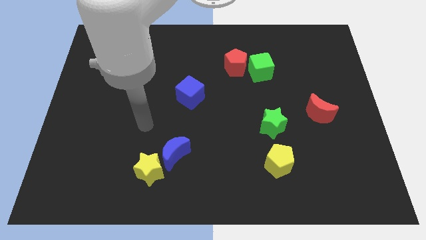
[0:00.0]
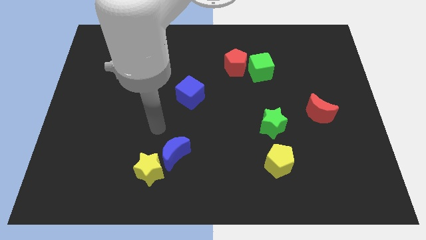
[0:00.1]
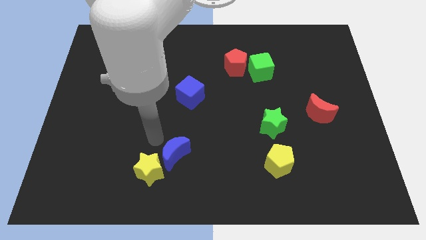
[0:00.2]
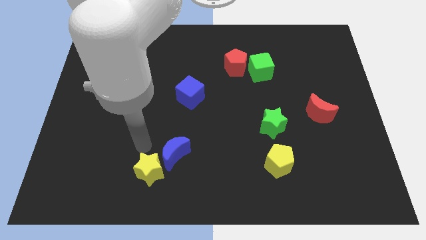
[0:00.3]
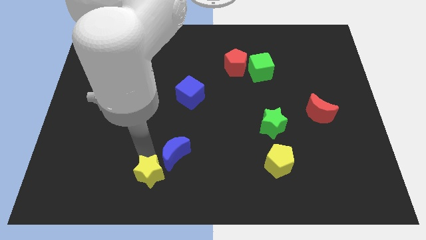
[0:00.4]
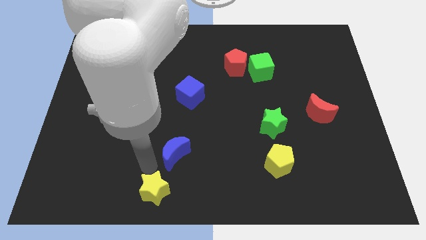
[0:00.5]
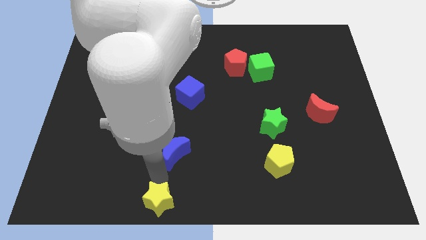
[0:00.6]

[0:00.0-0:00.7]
pull the blue moon apart from the yellow star

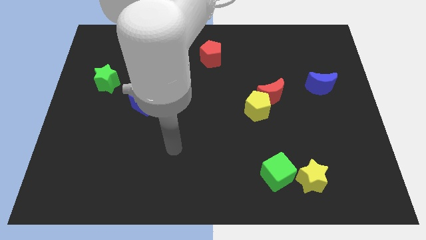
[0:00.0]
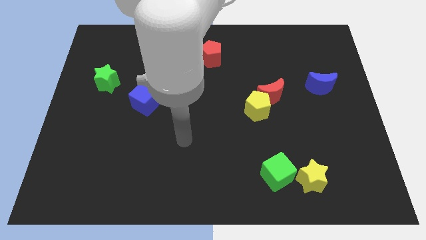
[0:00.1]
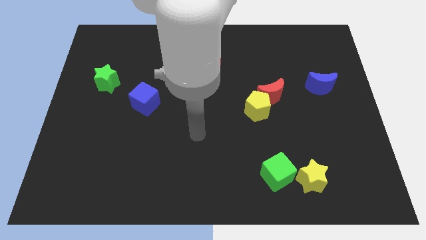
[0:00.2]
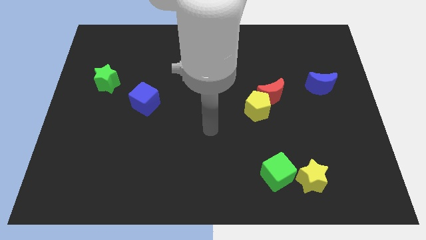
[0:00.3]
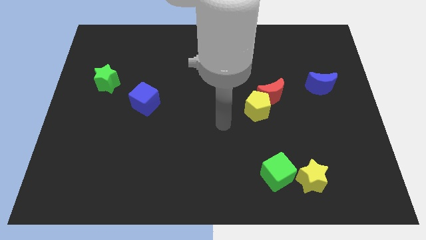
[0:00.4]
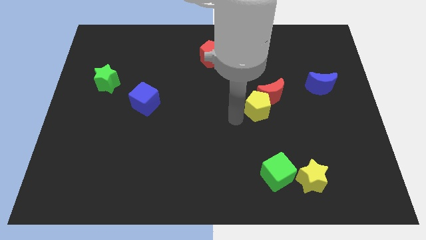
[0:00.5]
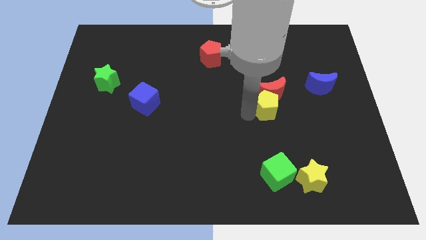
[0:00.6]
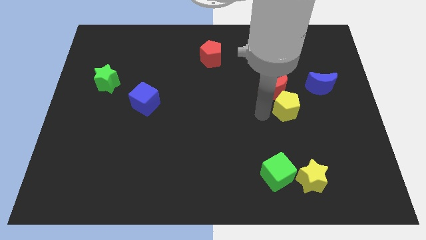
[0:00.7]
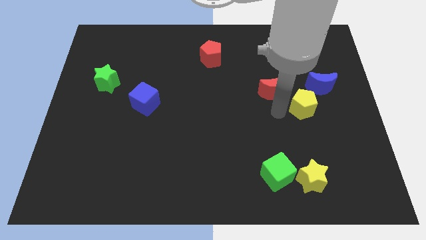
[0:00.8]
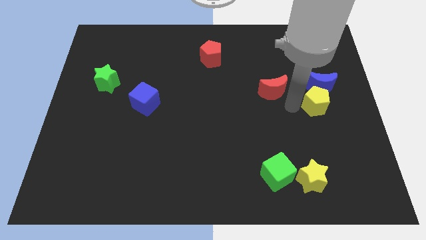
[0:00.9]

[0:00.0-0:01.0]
move the red moon away from the yellow pentagon

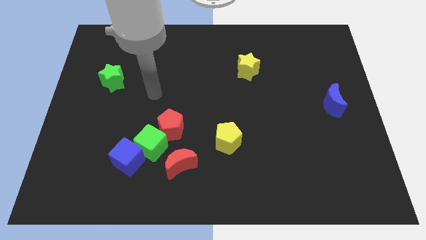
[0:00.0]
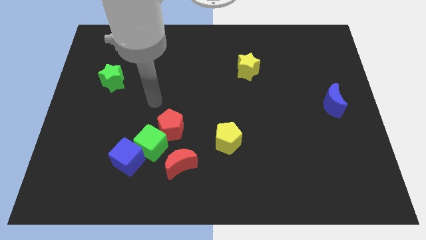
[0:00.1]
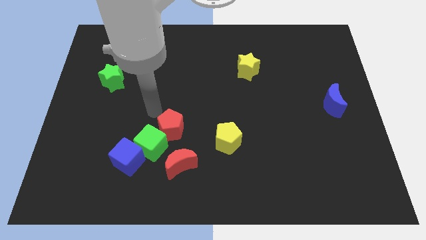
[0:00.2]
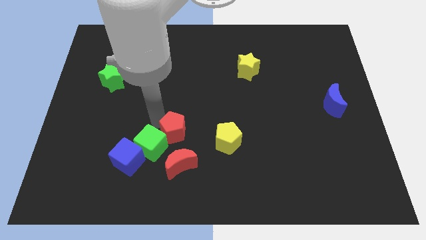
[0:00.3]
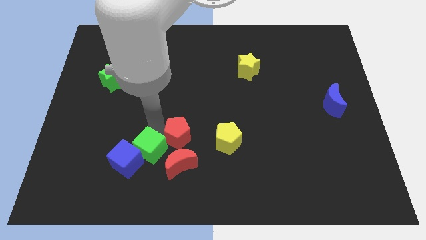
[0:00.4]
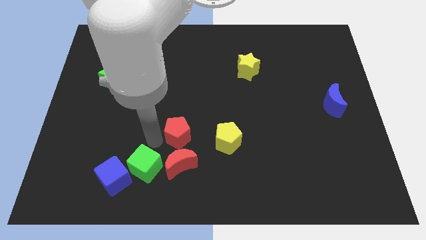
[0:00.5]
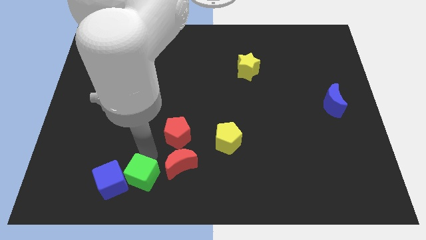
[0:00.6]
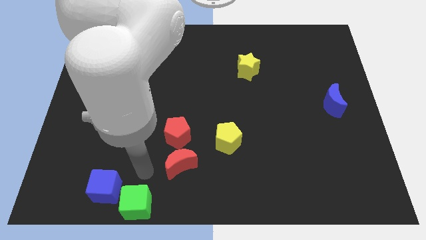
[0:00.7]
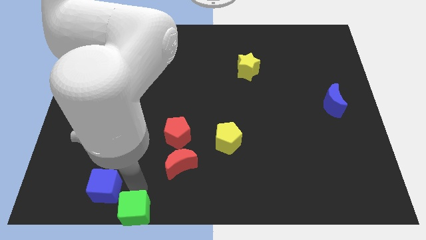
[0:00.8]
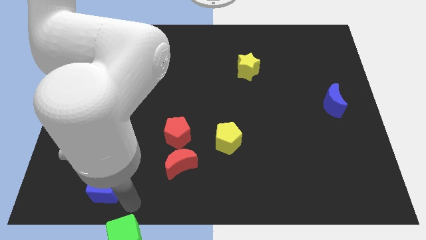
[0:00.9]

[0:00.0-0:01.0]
move the blue cube away from the green cube

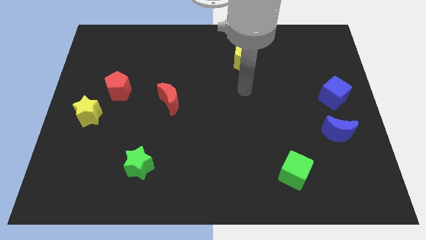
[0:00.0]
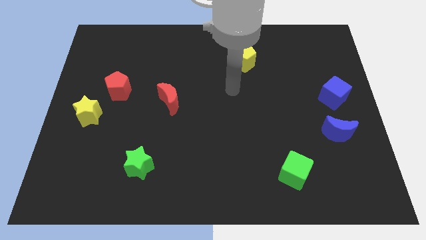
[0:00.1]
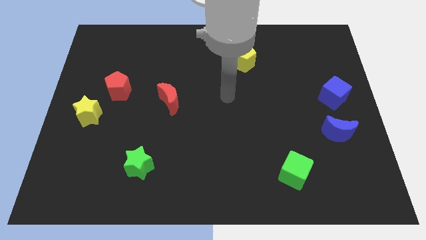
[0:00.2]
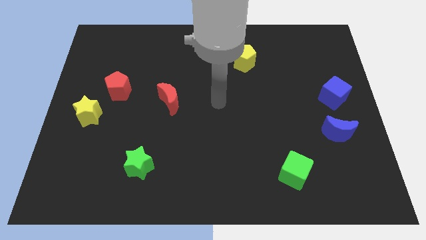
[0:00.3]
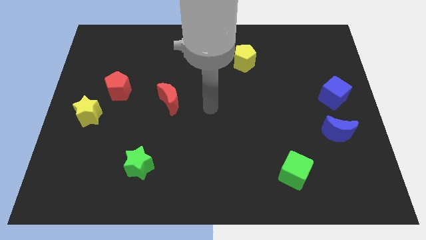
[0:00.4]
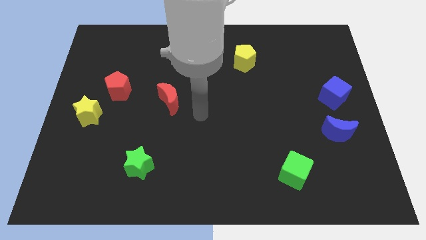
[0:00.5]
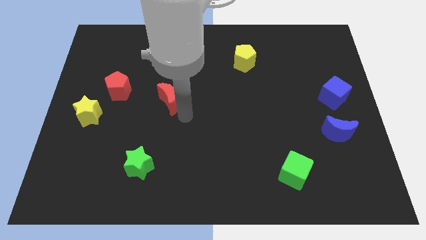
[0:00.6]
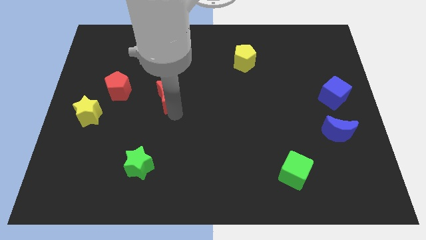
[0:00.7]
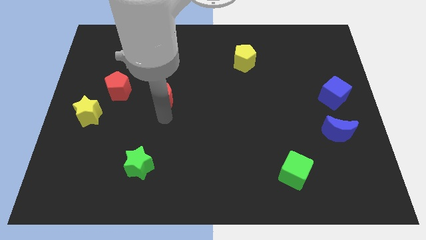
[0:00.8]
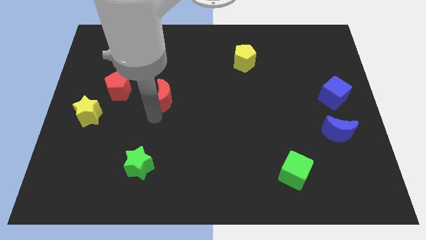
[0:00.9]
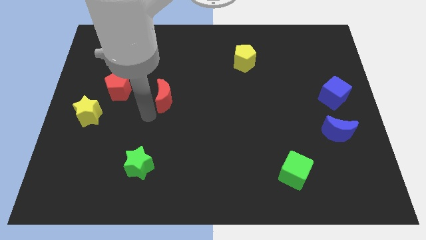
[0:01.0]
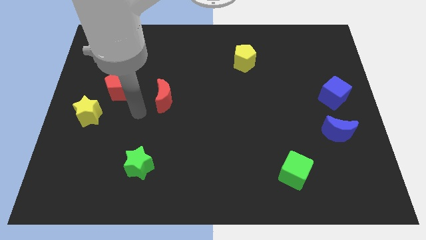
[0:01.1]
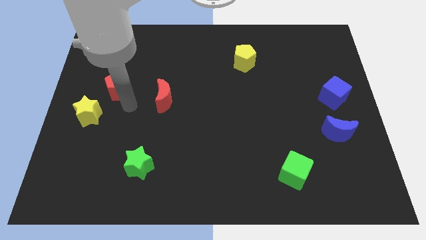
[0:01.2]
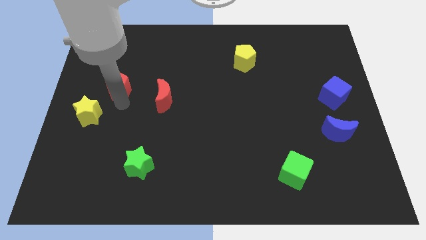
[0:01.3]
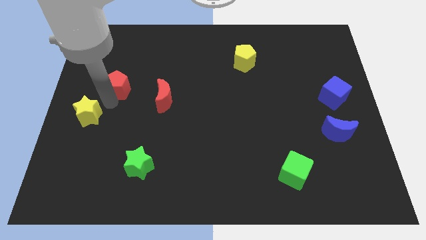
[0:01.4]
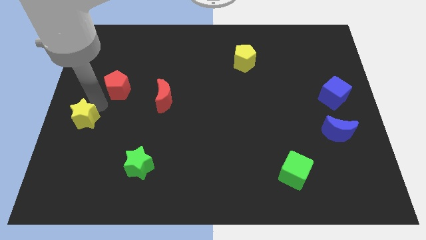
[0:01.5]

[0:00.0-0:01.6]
pull the red pentagon apart from the yellow star

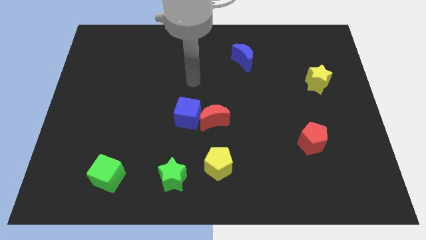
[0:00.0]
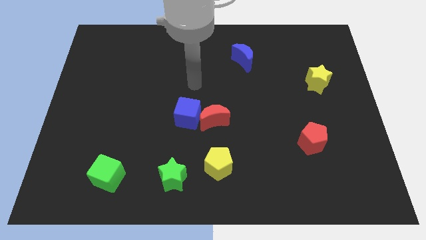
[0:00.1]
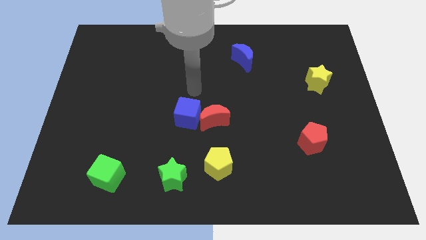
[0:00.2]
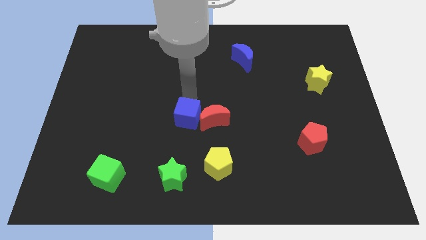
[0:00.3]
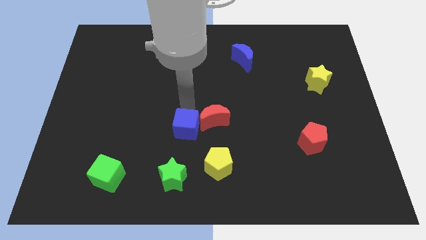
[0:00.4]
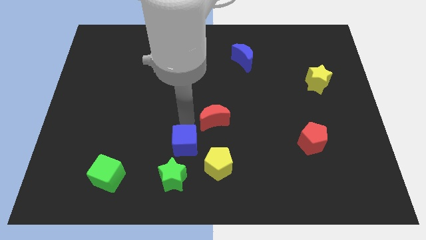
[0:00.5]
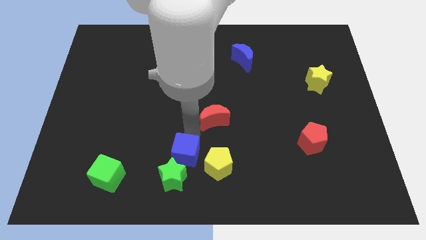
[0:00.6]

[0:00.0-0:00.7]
pull the red moon apart from the blue cube

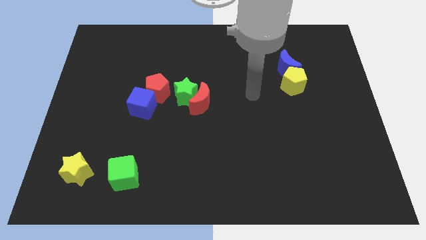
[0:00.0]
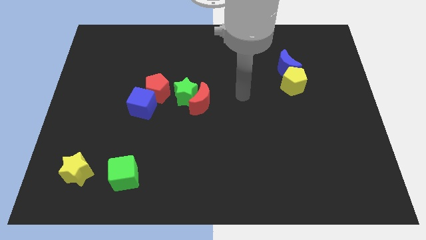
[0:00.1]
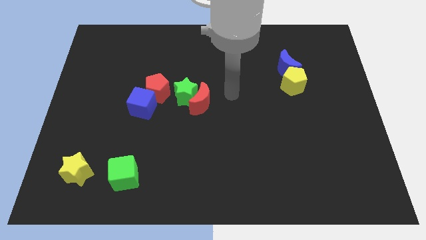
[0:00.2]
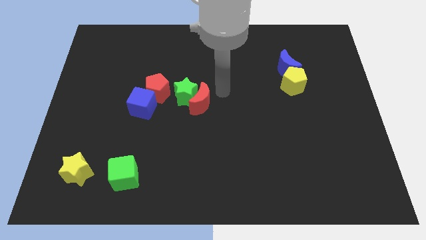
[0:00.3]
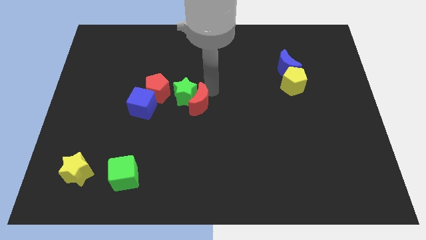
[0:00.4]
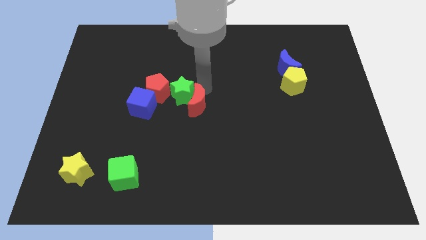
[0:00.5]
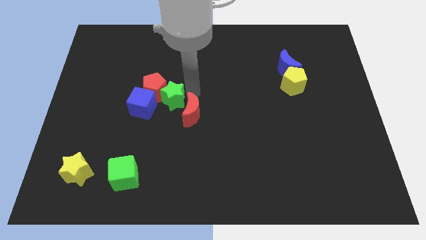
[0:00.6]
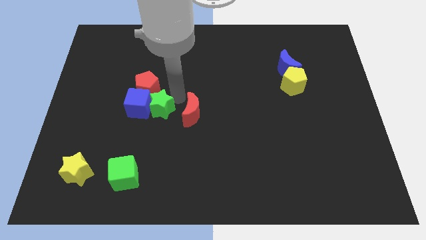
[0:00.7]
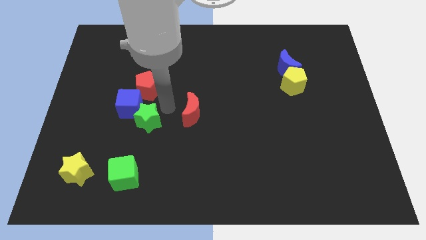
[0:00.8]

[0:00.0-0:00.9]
move the red moon away from the green star

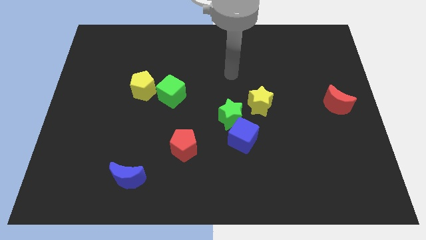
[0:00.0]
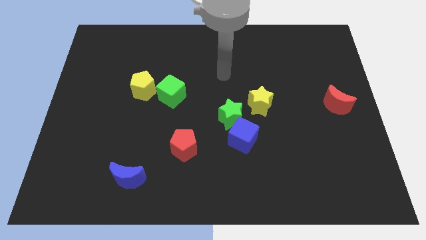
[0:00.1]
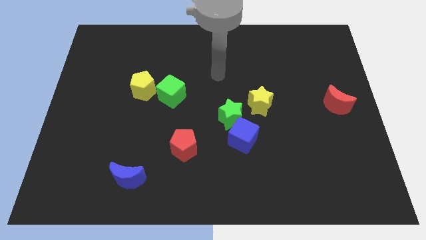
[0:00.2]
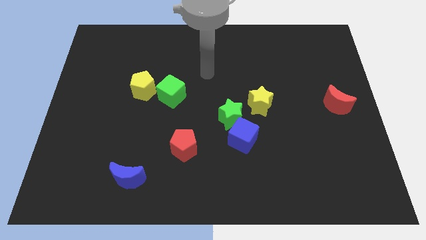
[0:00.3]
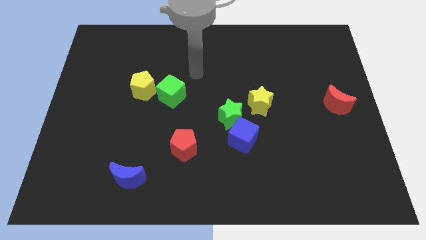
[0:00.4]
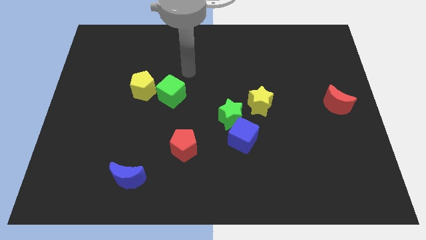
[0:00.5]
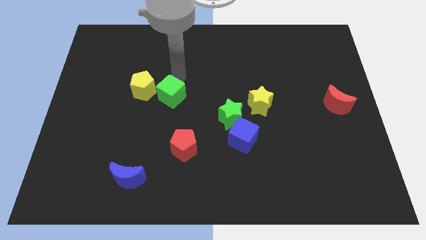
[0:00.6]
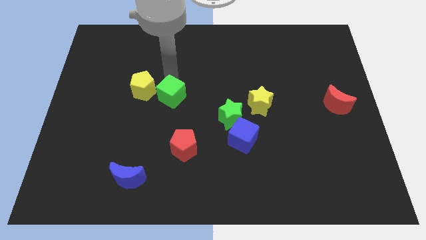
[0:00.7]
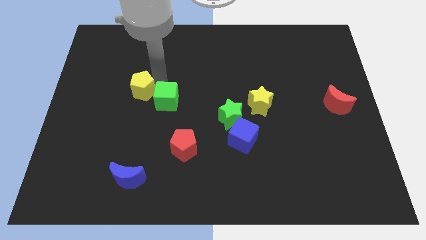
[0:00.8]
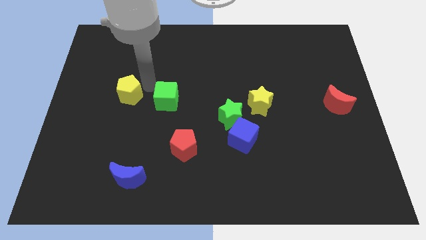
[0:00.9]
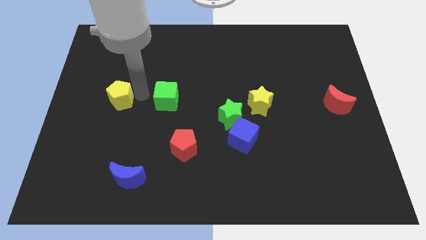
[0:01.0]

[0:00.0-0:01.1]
pull the green cube apart from the yellow pentagon

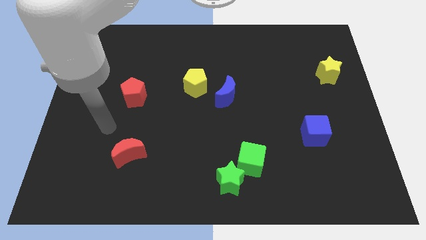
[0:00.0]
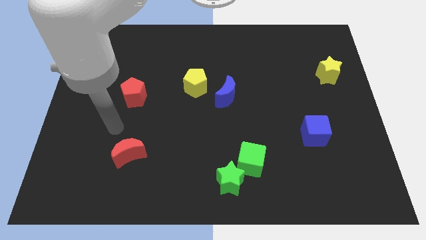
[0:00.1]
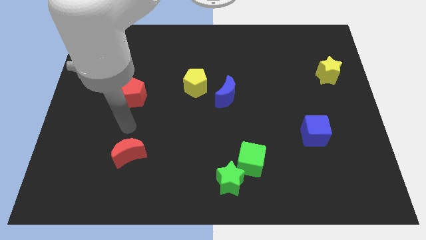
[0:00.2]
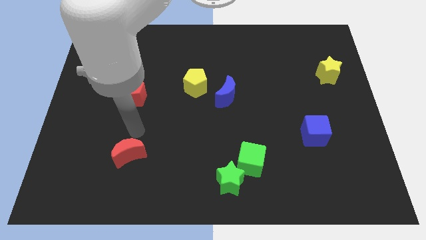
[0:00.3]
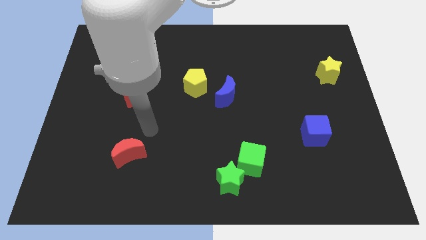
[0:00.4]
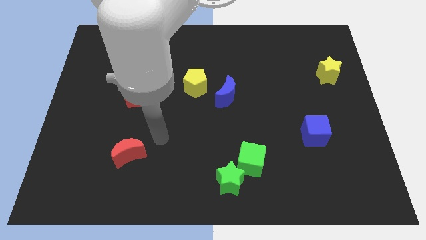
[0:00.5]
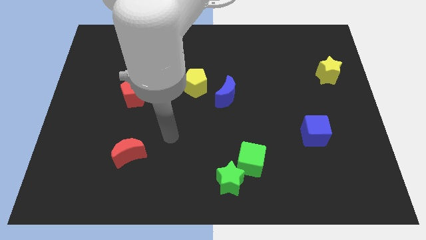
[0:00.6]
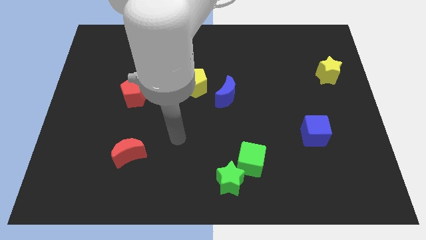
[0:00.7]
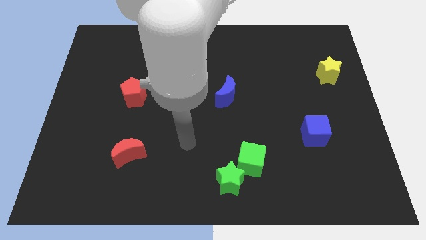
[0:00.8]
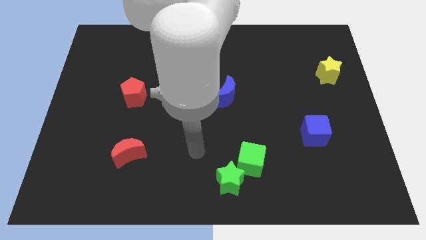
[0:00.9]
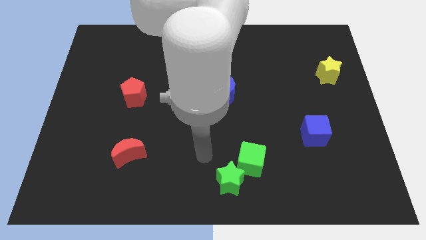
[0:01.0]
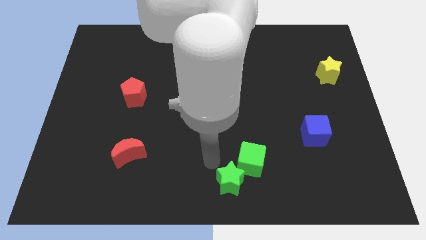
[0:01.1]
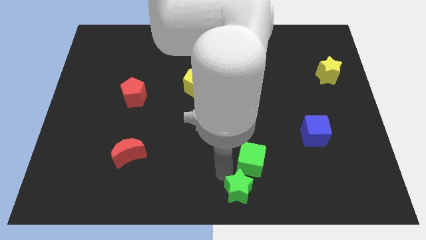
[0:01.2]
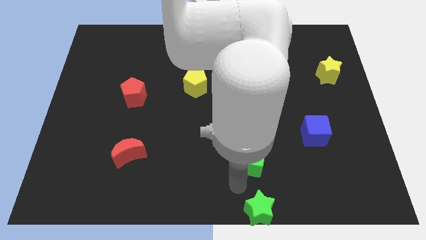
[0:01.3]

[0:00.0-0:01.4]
separate the green cube from the green star

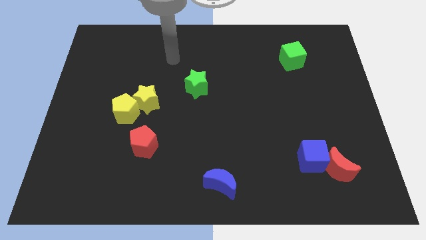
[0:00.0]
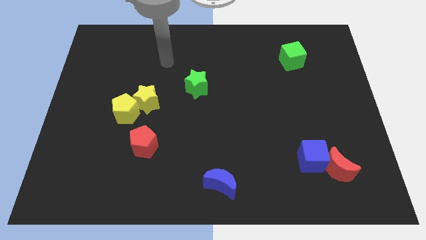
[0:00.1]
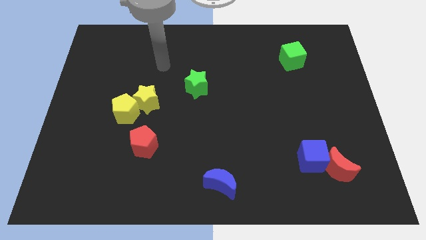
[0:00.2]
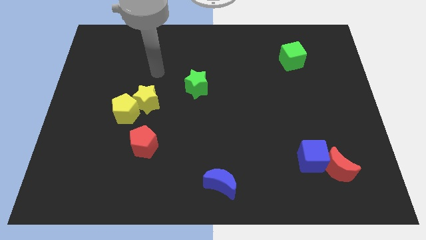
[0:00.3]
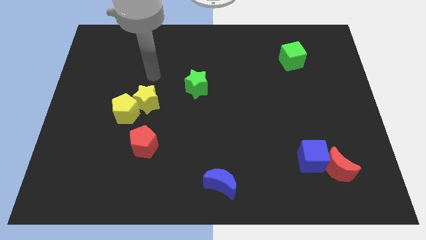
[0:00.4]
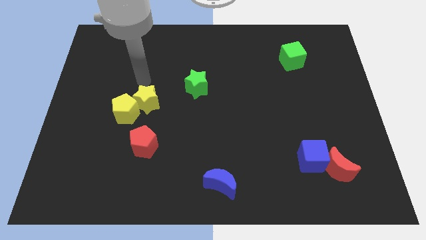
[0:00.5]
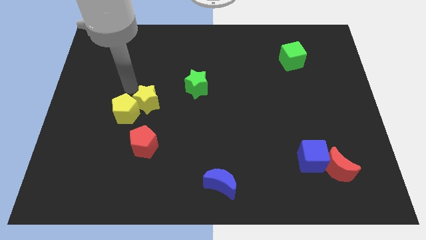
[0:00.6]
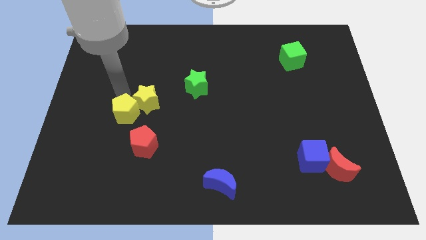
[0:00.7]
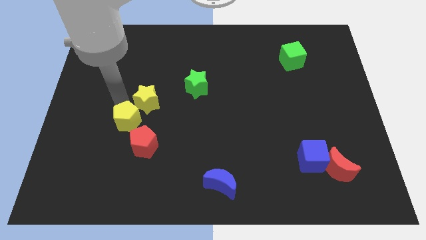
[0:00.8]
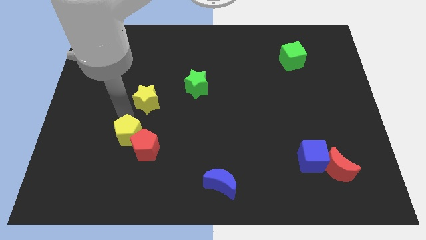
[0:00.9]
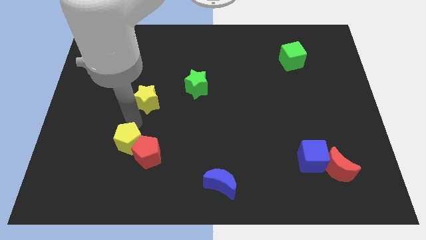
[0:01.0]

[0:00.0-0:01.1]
pull the yellow star apart from the yellow pentagon
